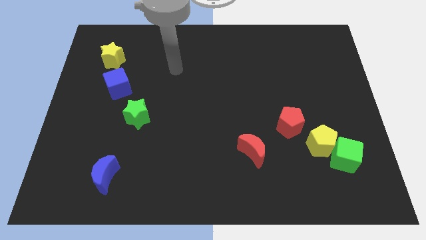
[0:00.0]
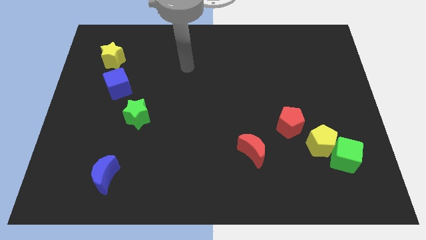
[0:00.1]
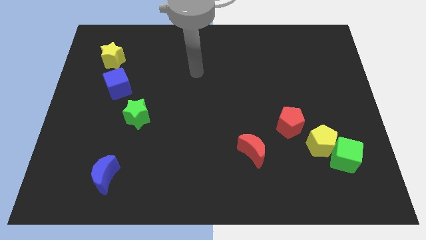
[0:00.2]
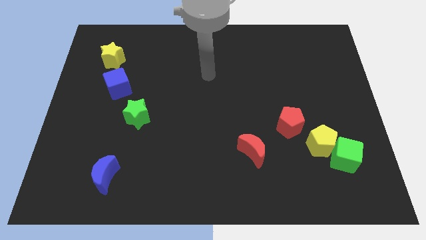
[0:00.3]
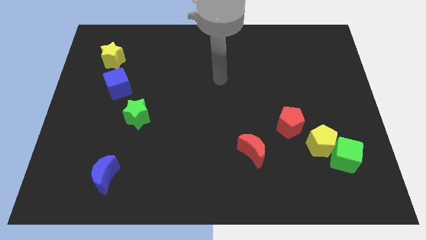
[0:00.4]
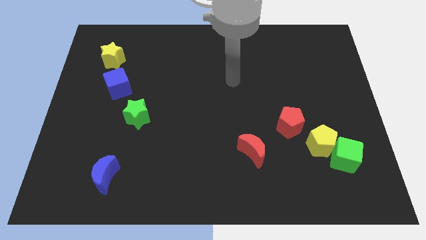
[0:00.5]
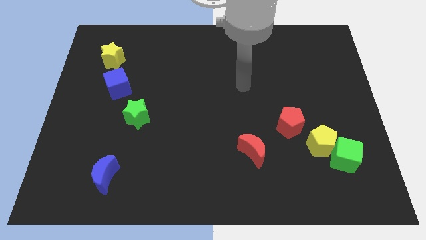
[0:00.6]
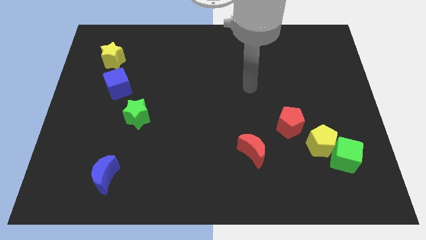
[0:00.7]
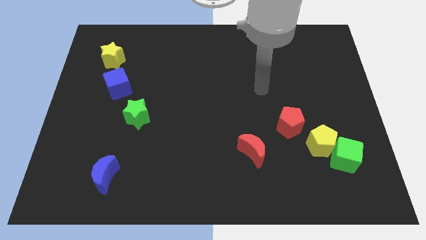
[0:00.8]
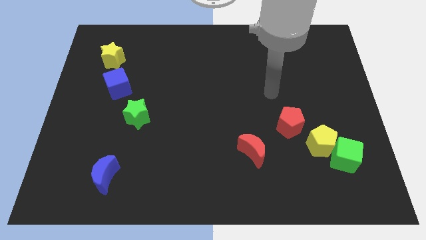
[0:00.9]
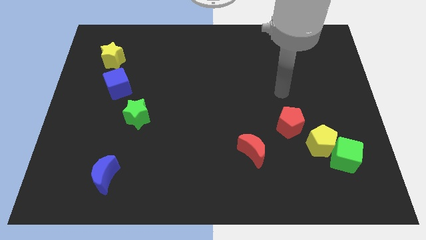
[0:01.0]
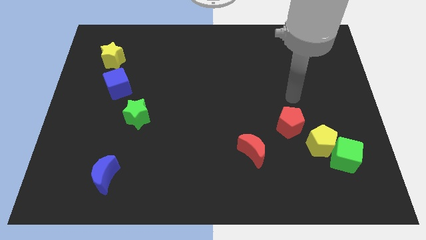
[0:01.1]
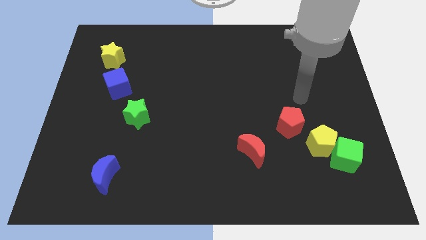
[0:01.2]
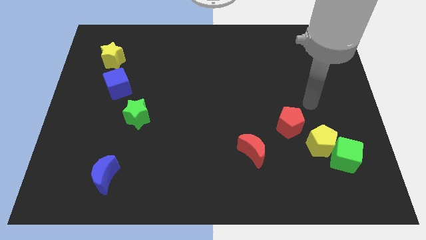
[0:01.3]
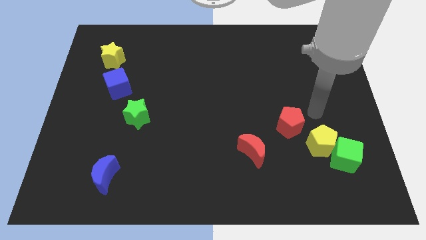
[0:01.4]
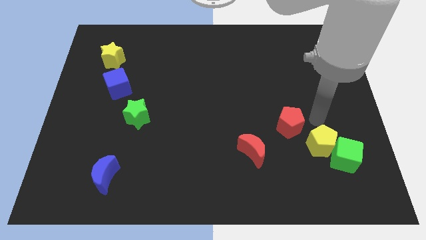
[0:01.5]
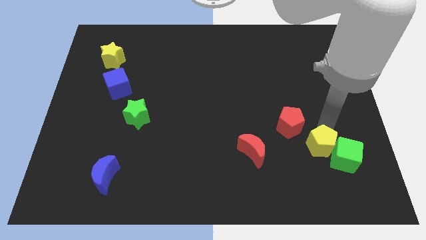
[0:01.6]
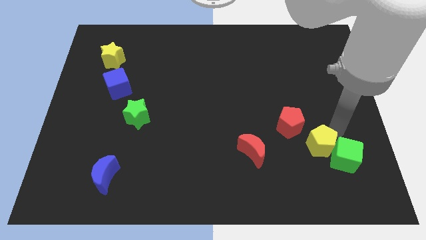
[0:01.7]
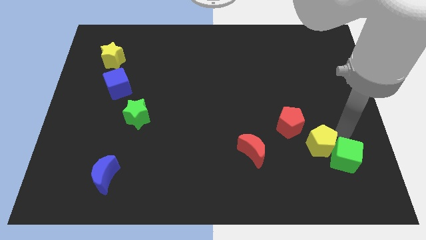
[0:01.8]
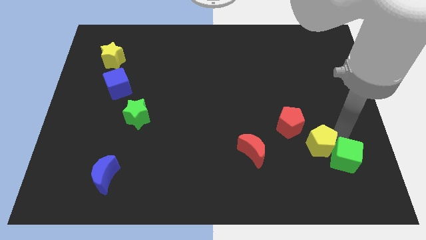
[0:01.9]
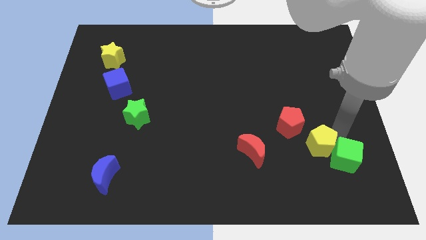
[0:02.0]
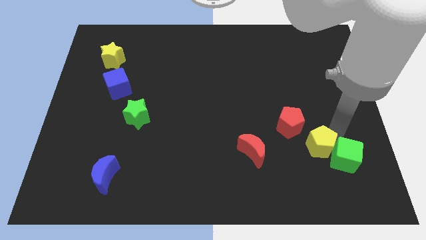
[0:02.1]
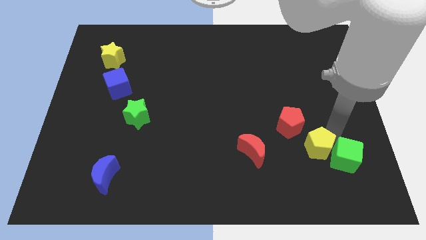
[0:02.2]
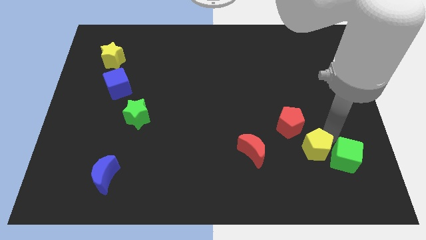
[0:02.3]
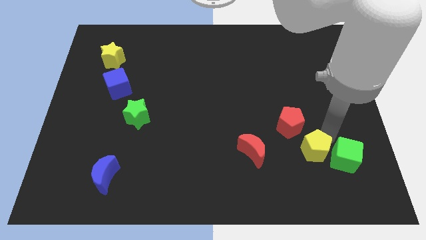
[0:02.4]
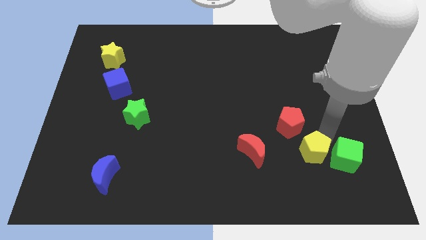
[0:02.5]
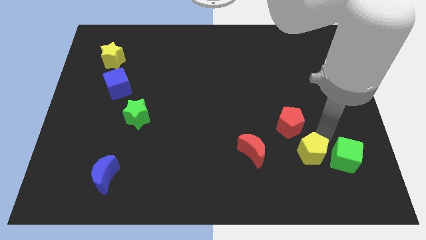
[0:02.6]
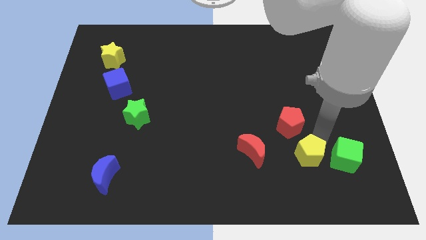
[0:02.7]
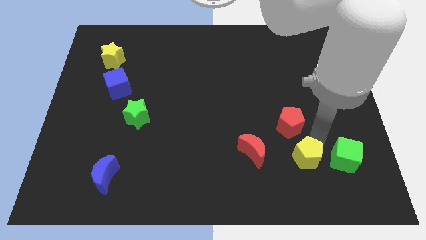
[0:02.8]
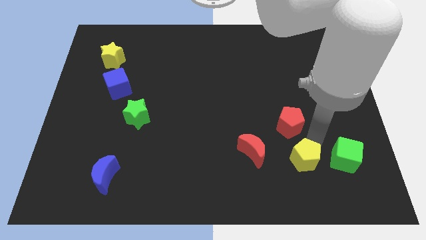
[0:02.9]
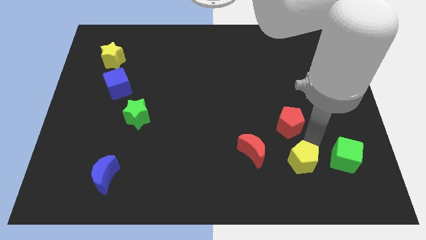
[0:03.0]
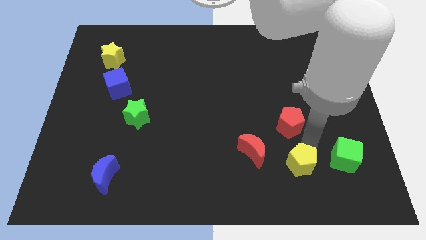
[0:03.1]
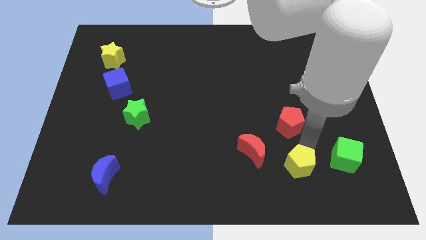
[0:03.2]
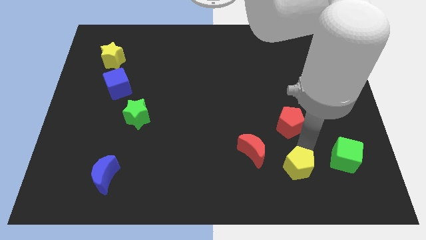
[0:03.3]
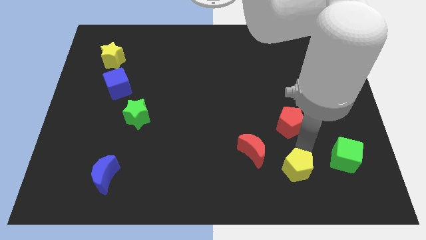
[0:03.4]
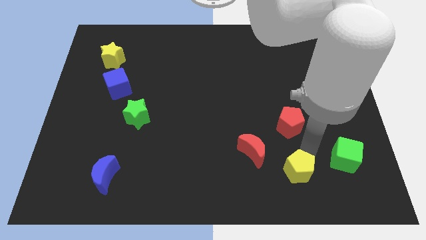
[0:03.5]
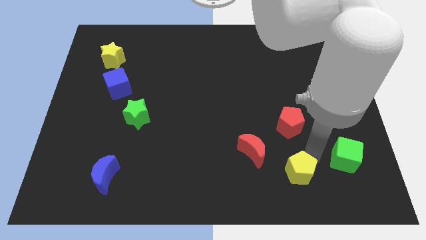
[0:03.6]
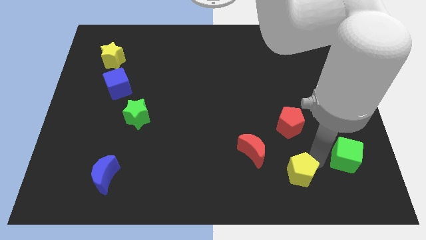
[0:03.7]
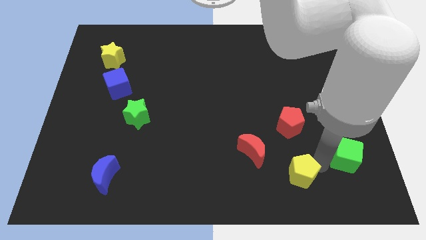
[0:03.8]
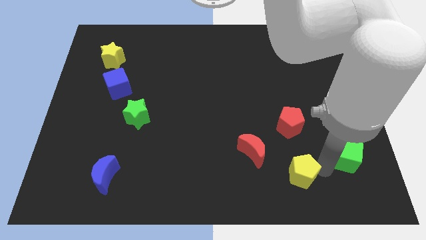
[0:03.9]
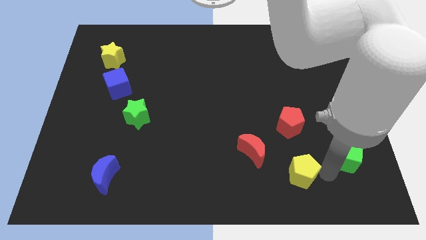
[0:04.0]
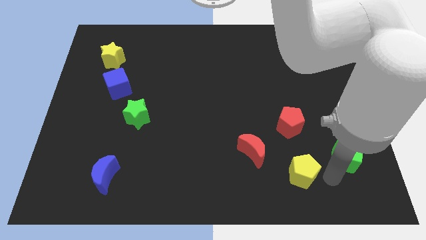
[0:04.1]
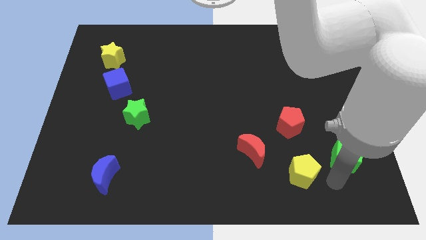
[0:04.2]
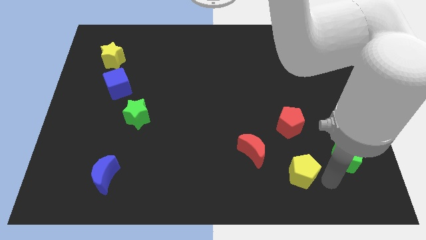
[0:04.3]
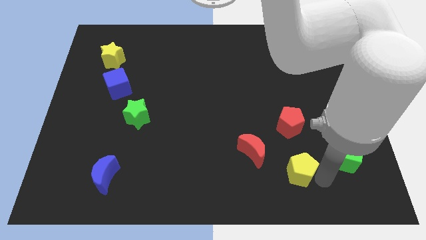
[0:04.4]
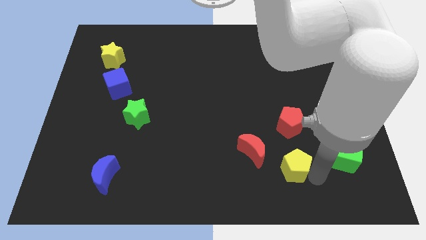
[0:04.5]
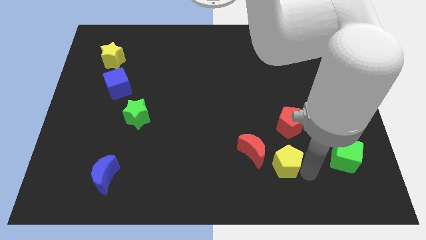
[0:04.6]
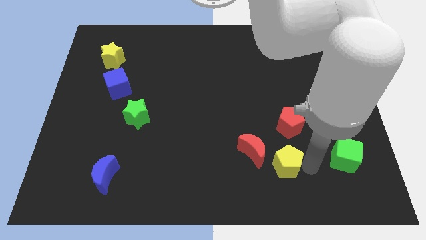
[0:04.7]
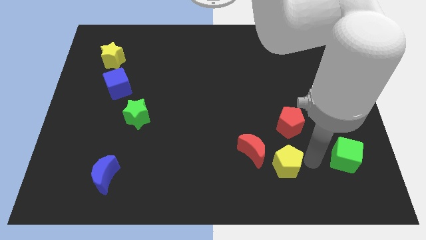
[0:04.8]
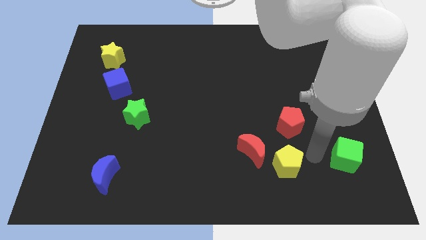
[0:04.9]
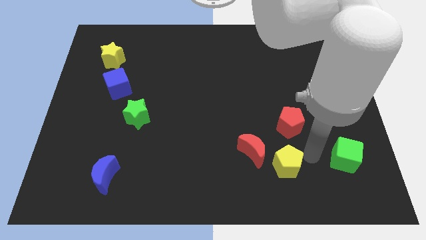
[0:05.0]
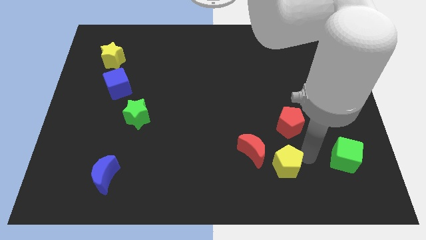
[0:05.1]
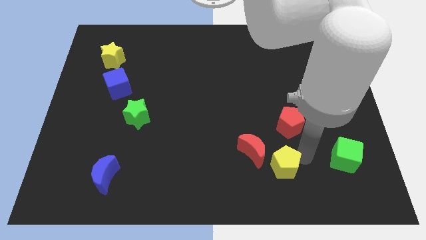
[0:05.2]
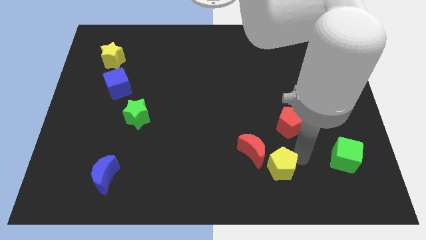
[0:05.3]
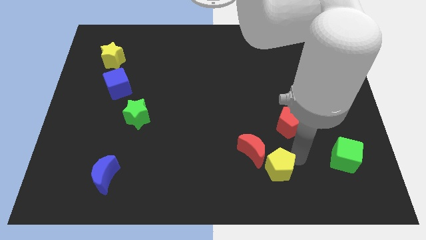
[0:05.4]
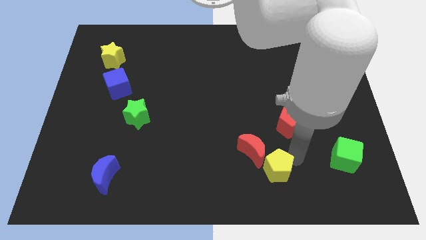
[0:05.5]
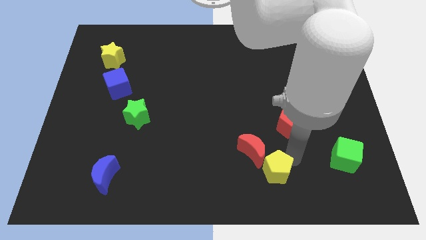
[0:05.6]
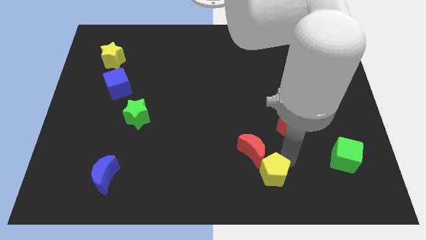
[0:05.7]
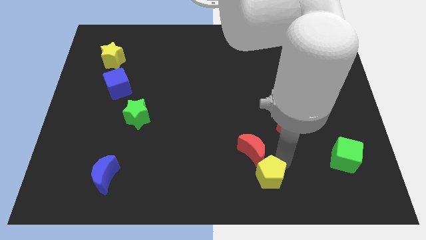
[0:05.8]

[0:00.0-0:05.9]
push the yellow pentagon to the bottom

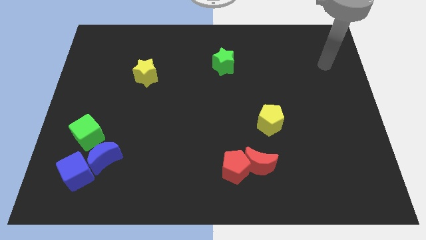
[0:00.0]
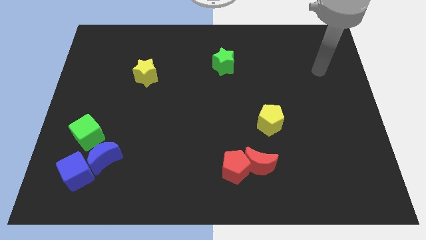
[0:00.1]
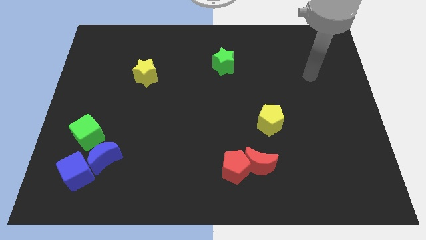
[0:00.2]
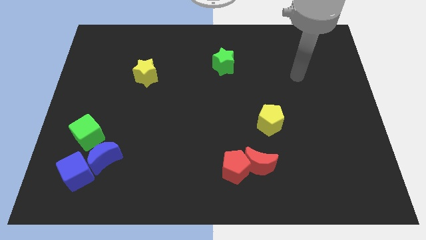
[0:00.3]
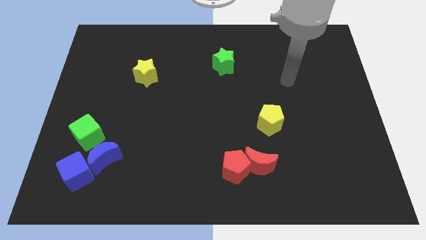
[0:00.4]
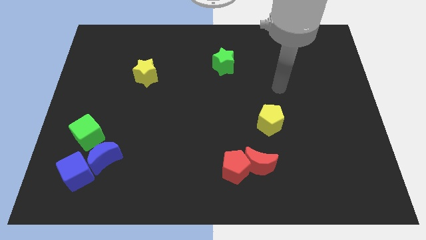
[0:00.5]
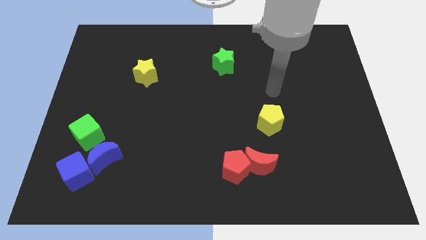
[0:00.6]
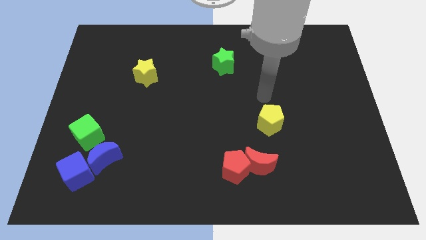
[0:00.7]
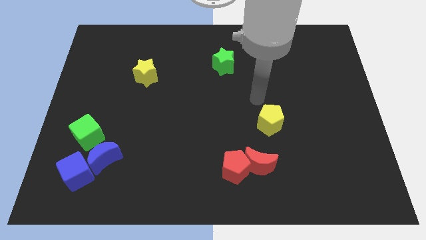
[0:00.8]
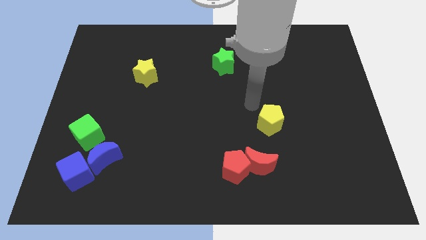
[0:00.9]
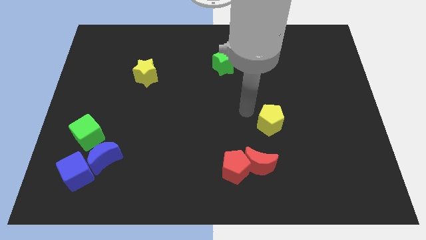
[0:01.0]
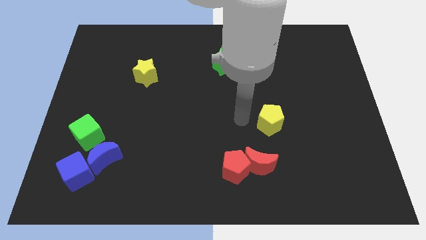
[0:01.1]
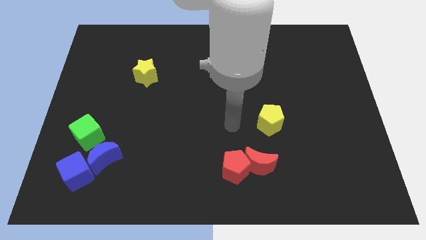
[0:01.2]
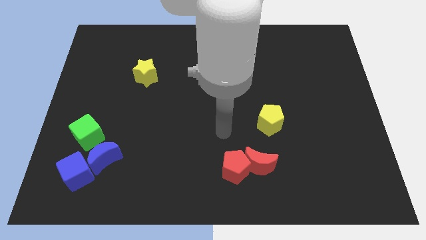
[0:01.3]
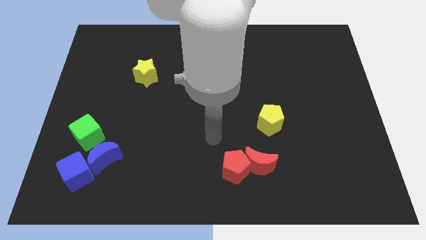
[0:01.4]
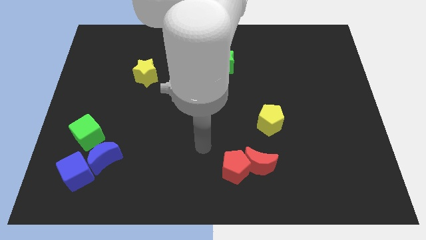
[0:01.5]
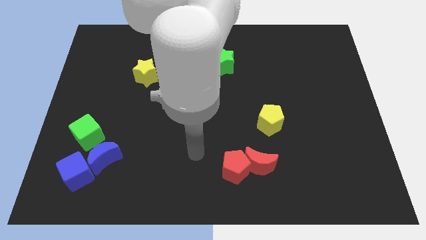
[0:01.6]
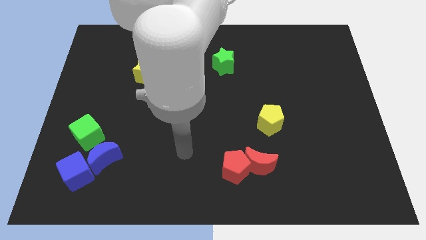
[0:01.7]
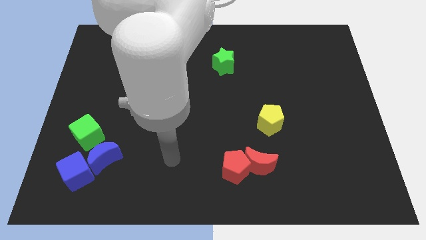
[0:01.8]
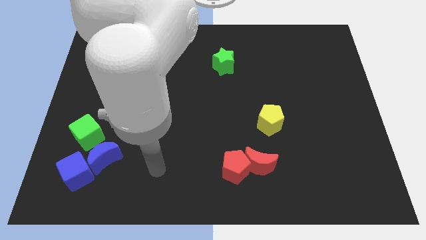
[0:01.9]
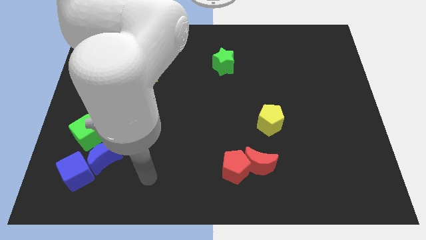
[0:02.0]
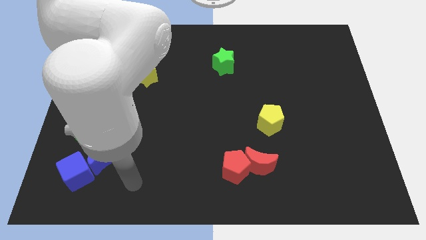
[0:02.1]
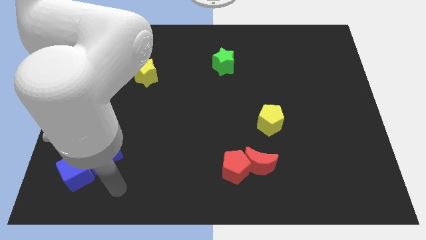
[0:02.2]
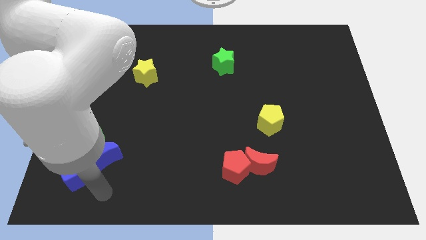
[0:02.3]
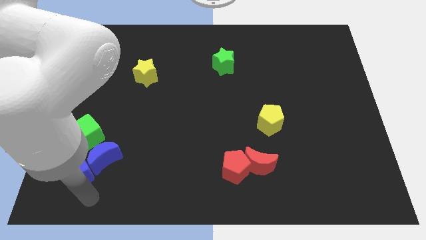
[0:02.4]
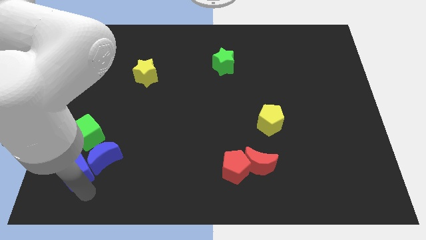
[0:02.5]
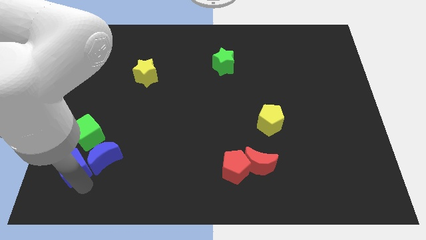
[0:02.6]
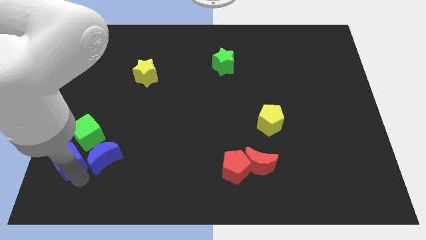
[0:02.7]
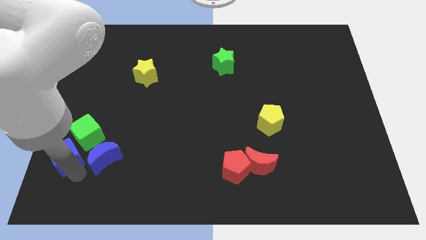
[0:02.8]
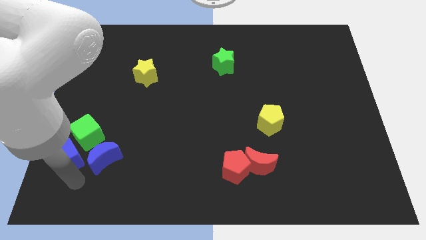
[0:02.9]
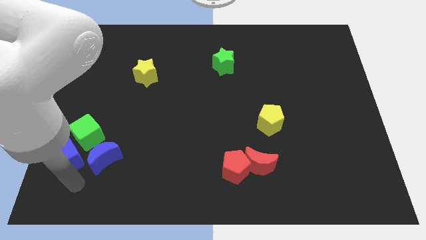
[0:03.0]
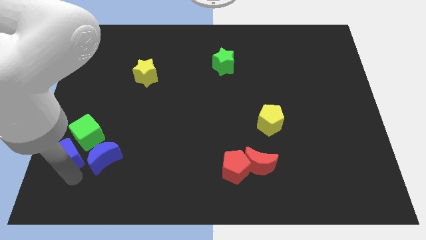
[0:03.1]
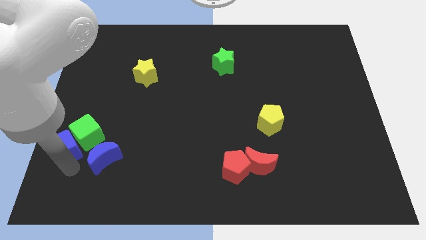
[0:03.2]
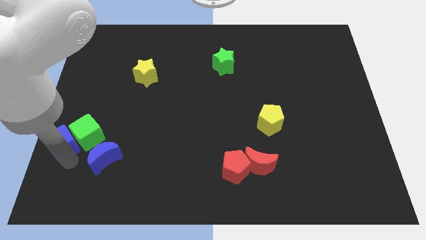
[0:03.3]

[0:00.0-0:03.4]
move the blue cube to the left side of the board
